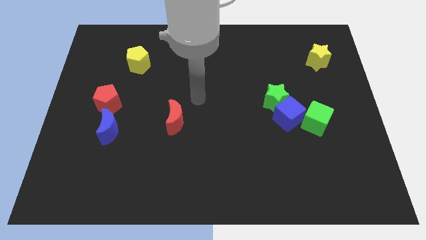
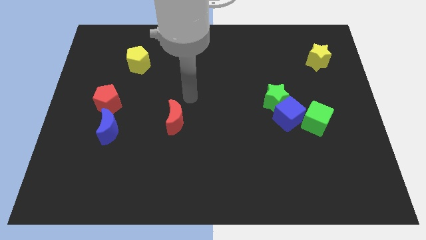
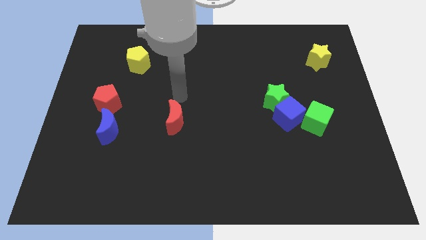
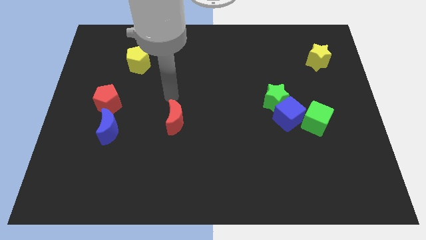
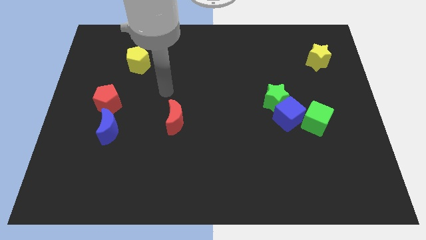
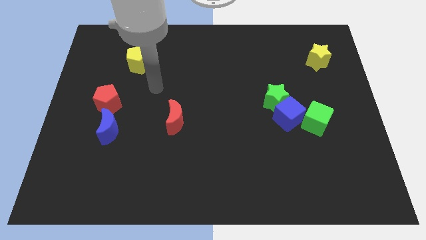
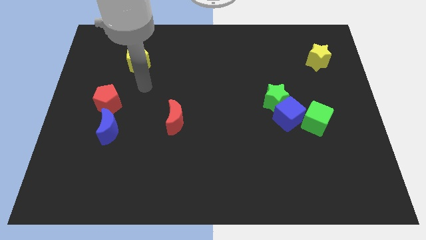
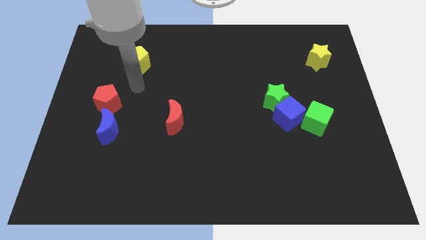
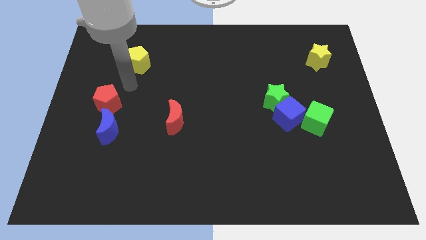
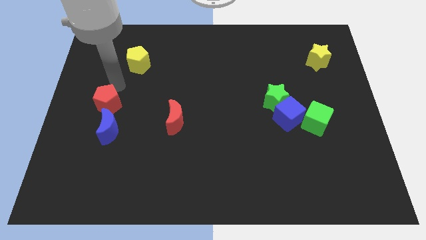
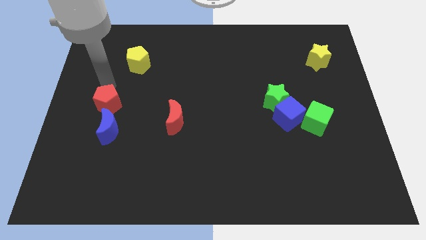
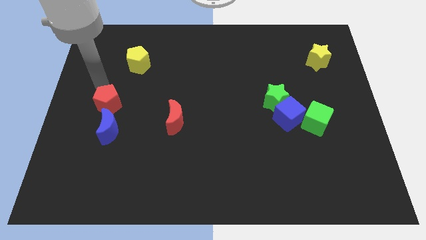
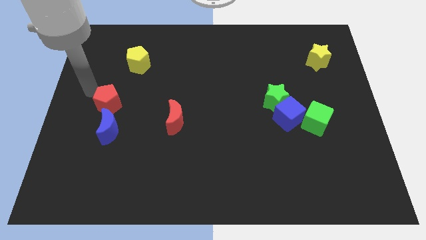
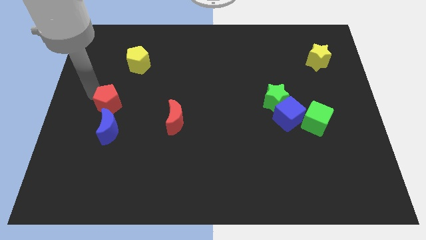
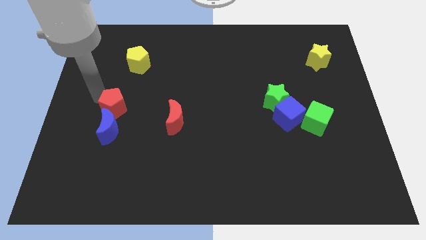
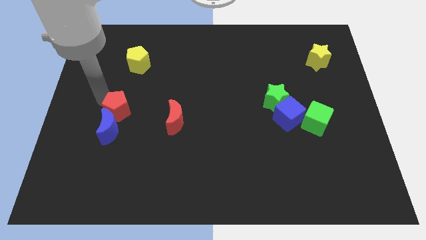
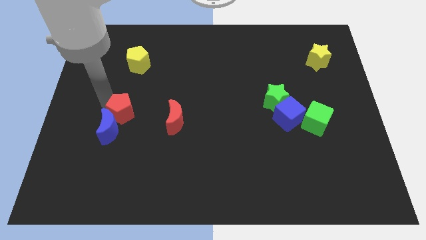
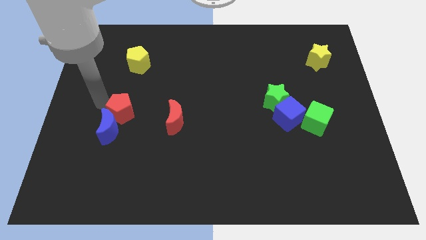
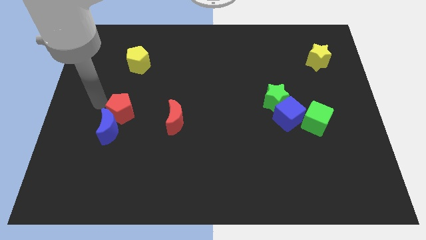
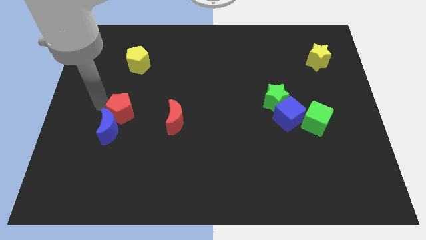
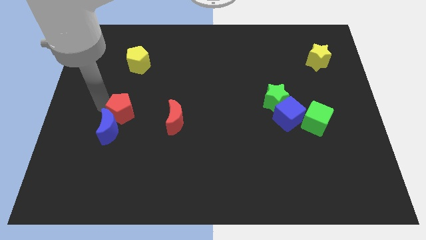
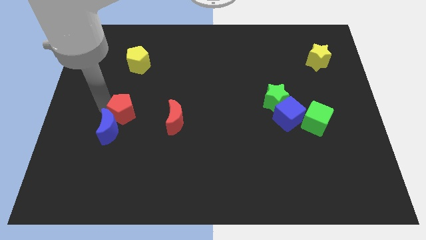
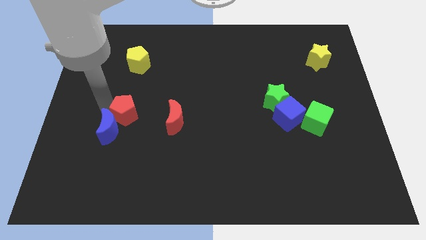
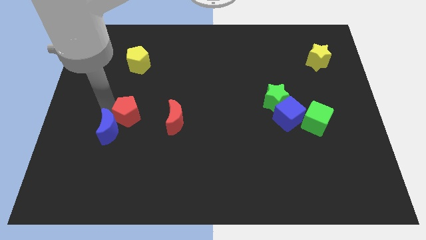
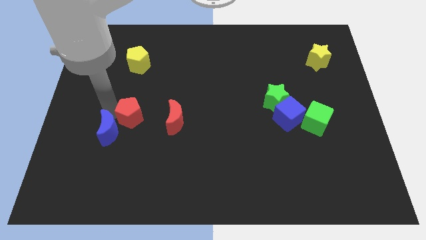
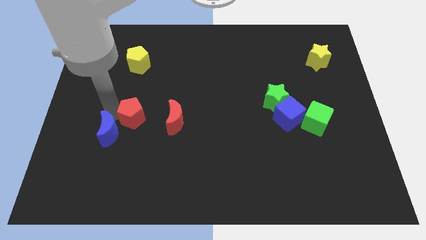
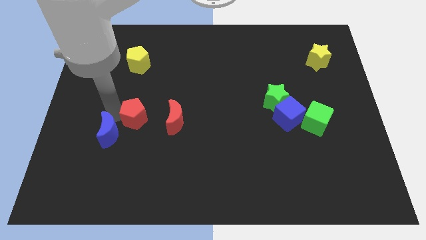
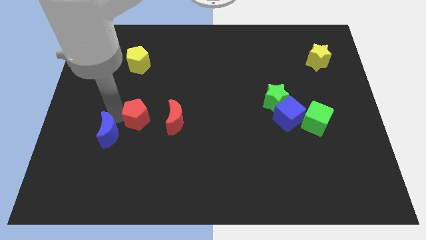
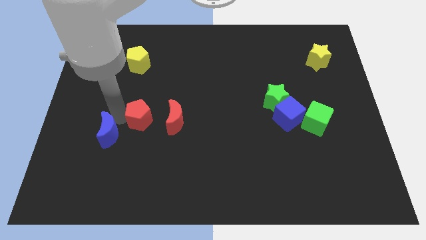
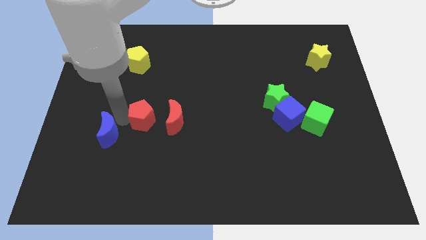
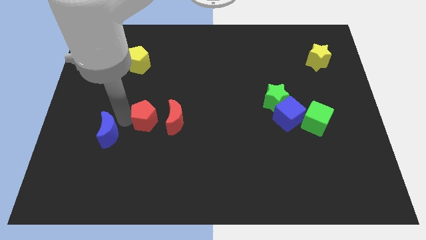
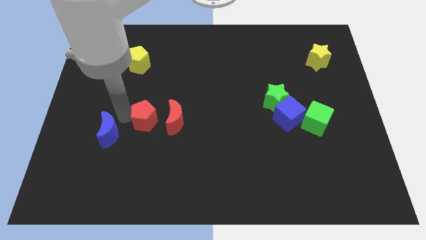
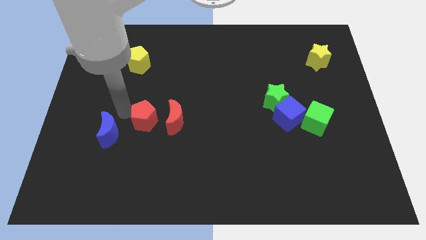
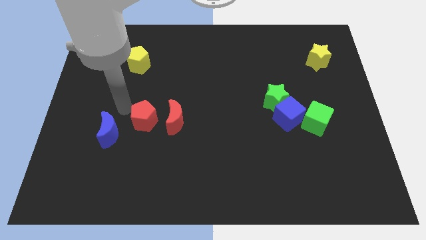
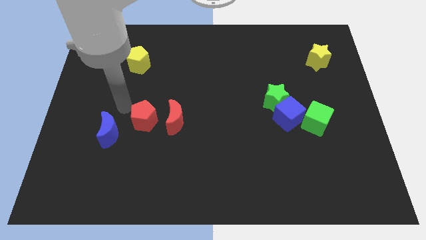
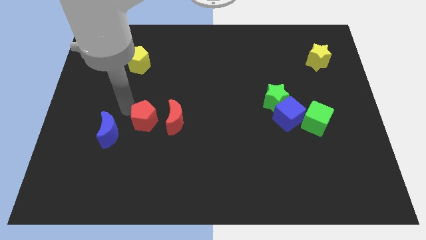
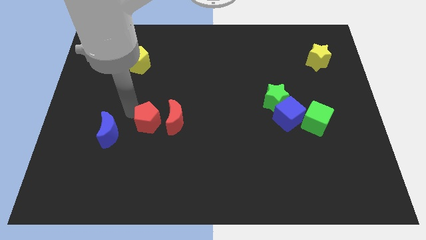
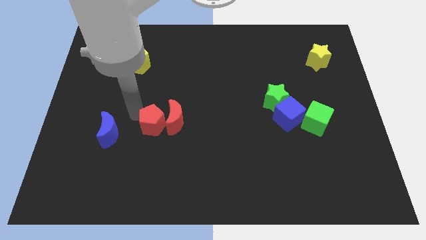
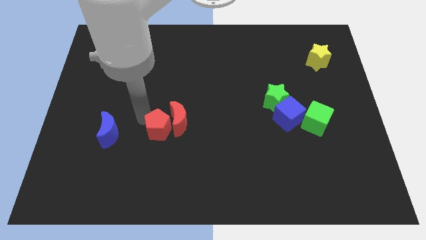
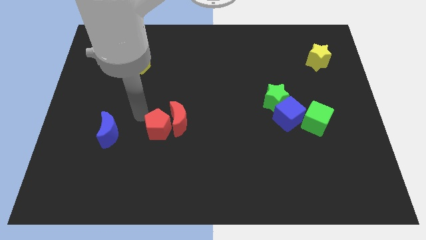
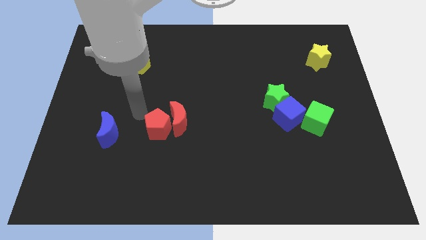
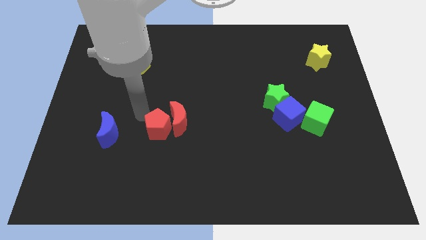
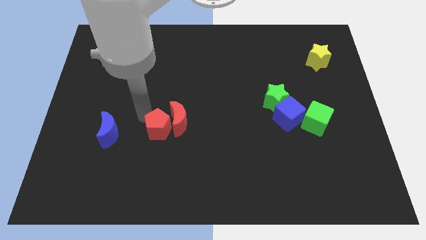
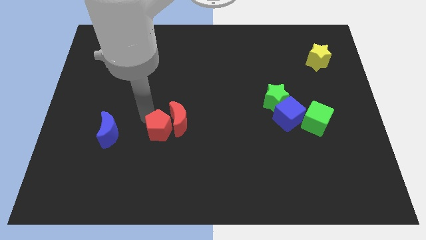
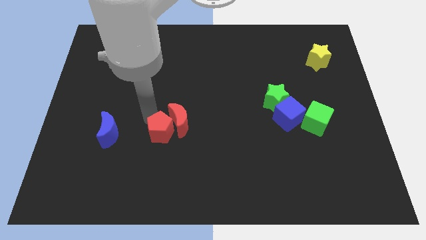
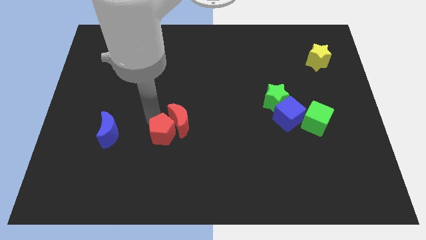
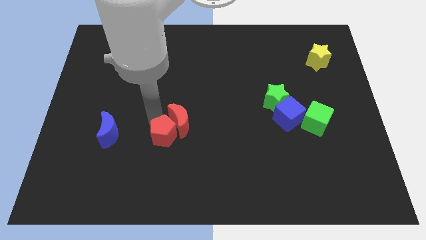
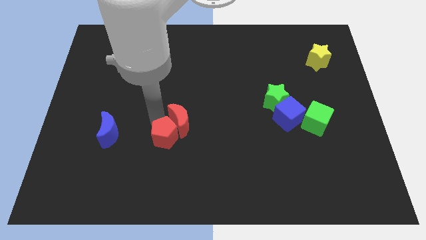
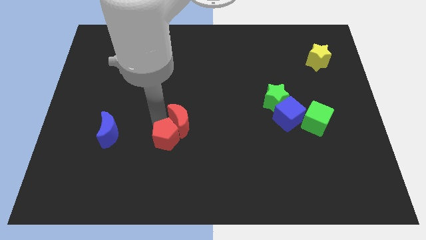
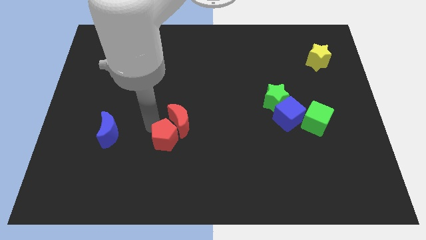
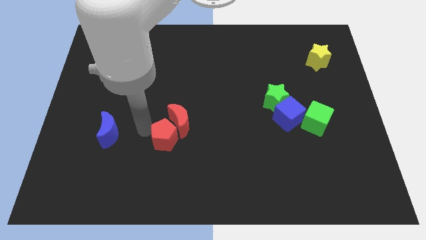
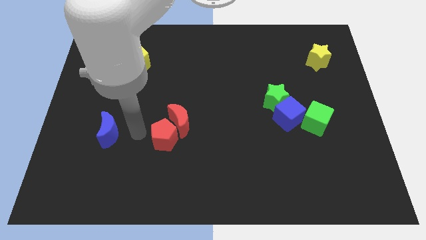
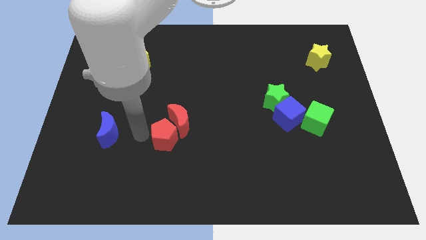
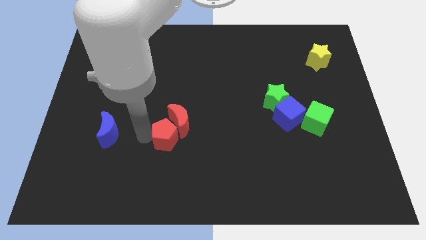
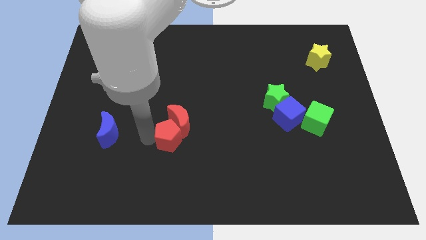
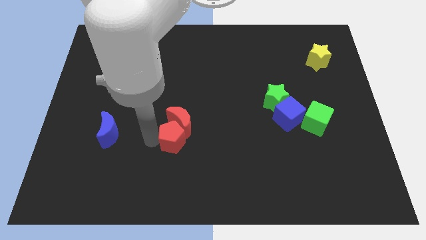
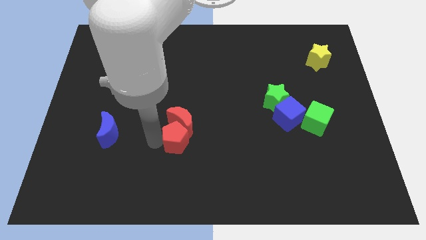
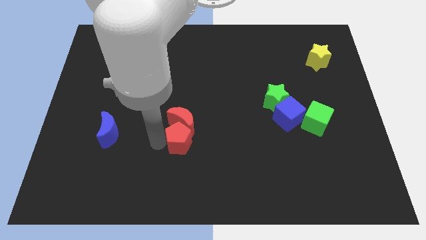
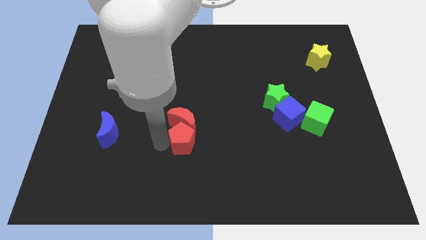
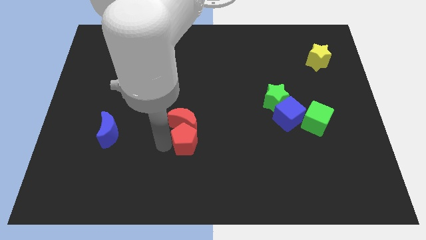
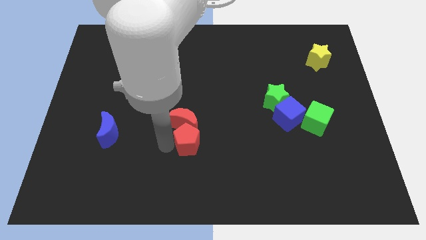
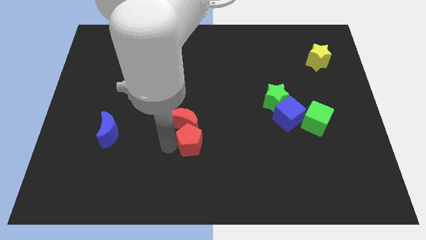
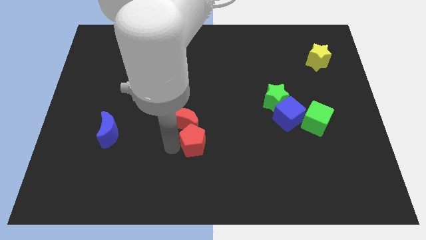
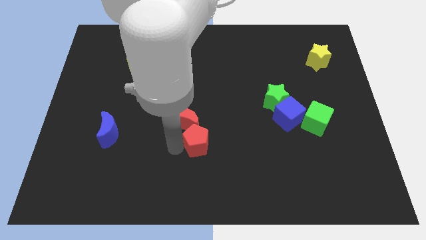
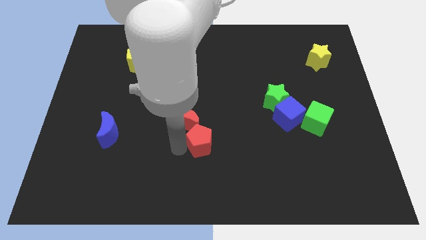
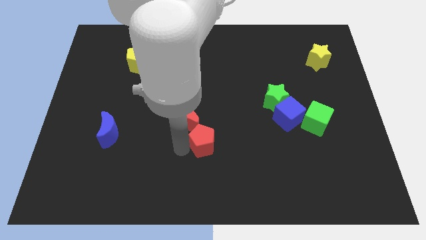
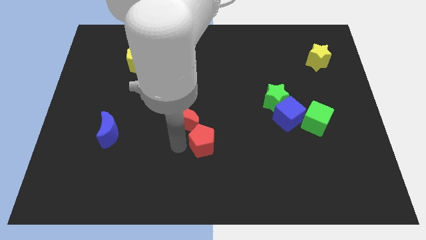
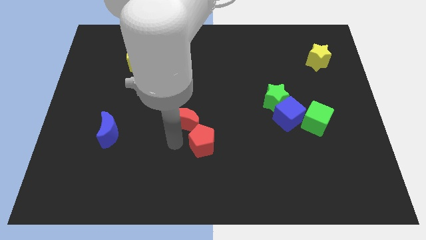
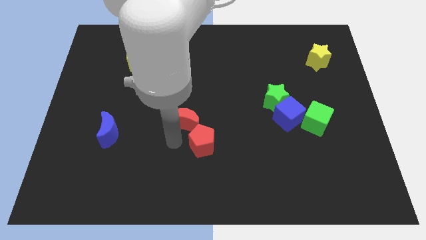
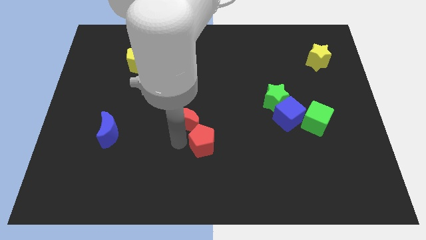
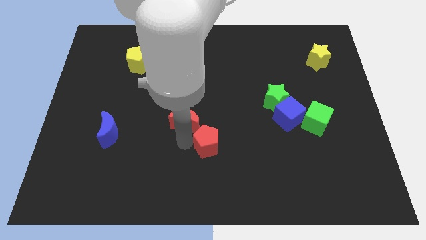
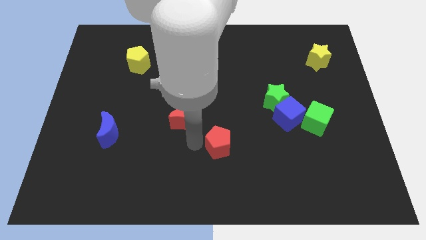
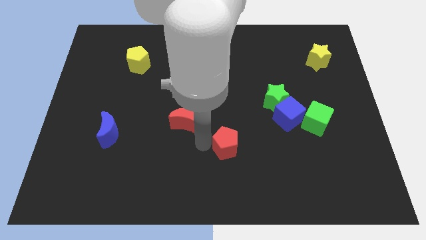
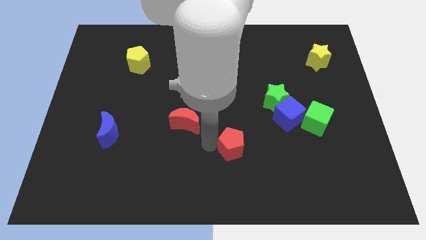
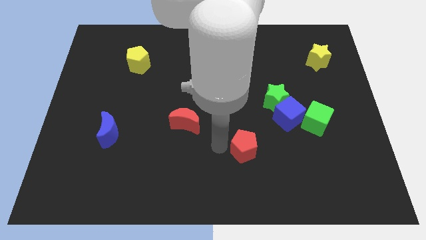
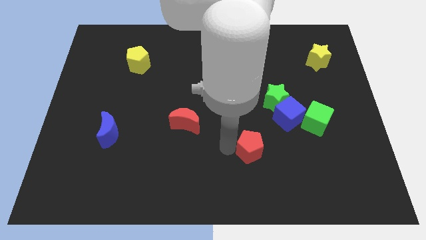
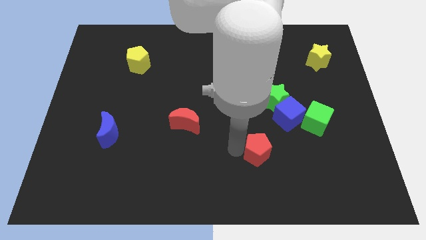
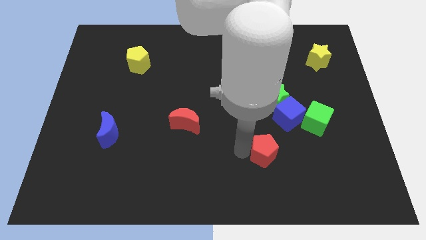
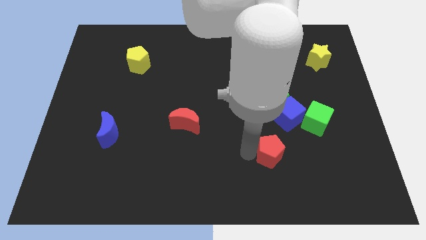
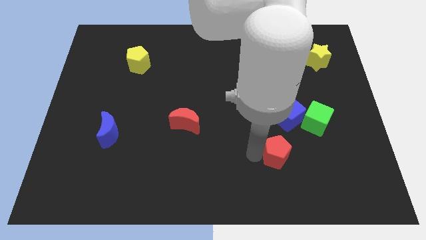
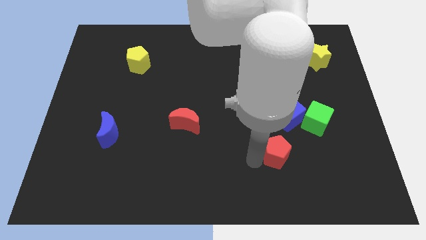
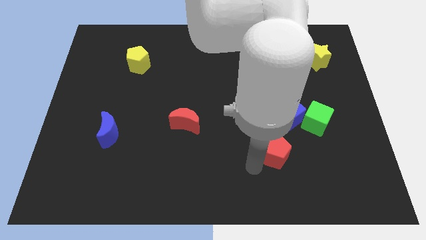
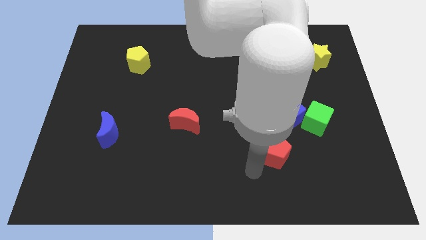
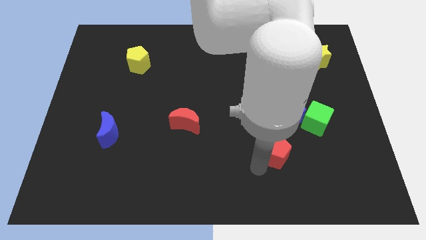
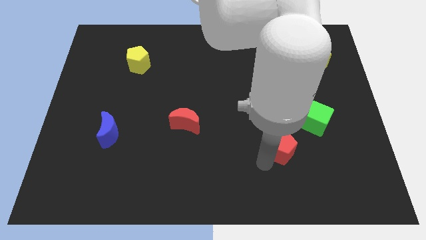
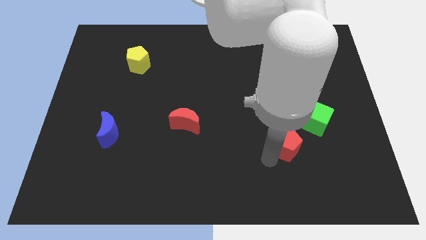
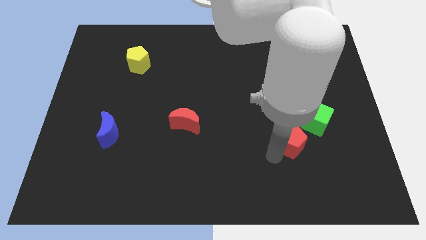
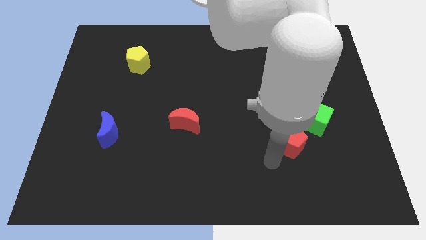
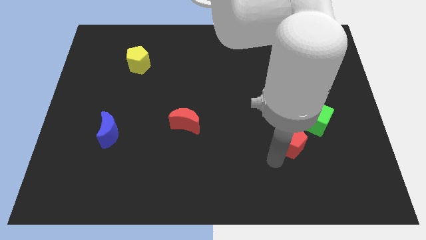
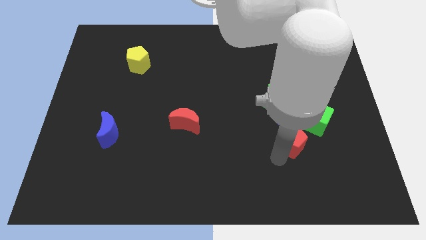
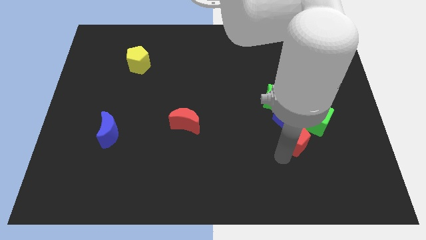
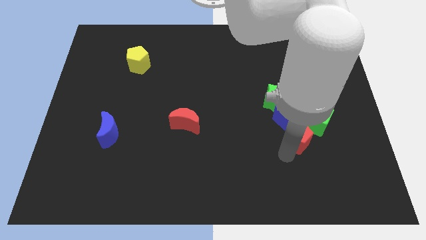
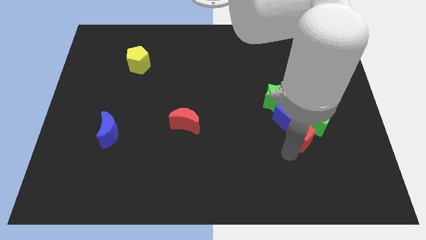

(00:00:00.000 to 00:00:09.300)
push the red pentagon close to the green cube
